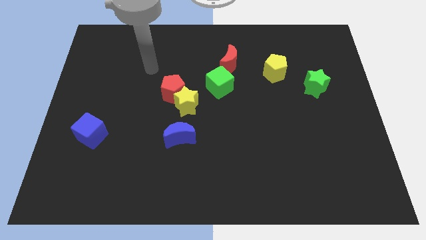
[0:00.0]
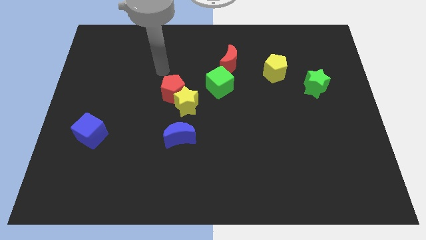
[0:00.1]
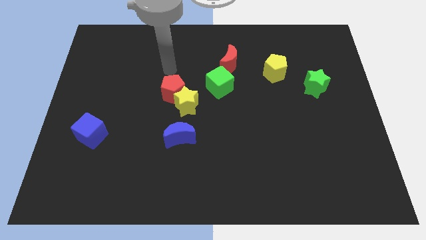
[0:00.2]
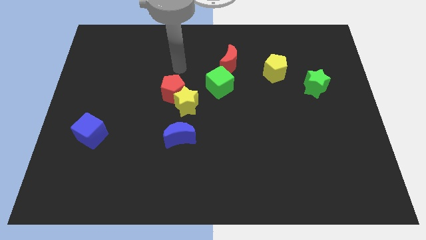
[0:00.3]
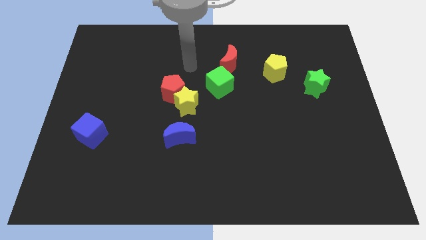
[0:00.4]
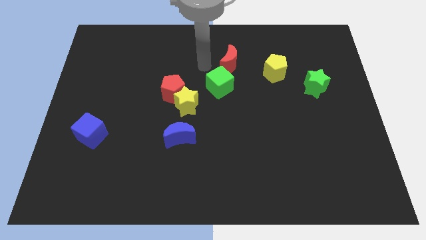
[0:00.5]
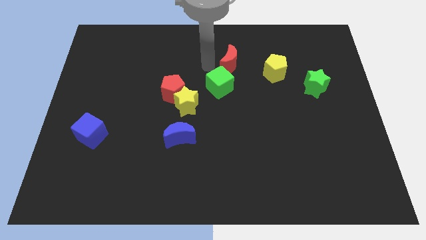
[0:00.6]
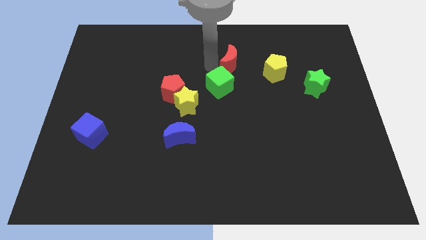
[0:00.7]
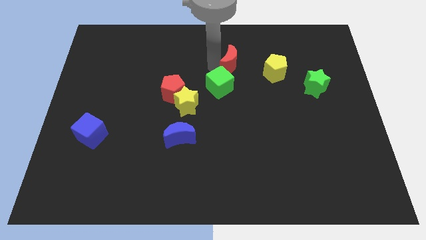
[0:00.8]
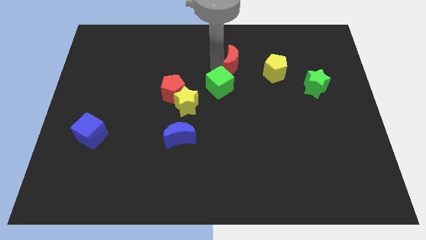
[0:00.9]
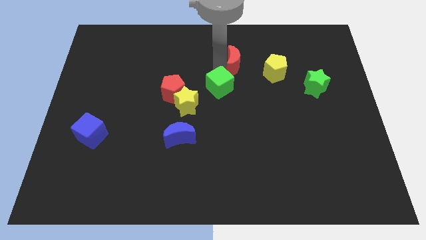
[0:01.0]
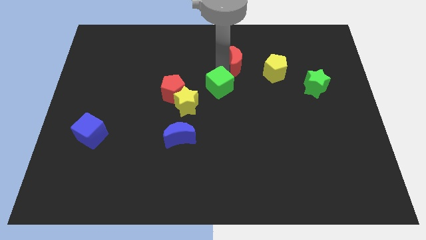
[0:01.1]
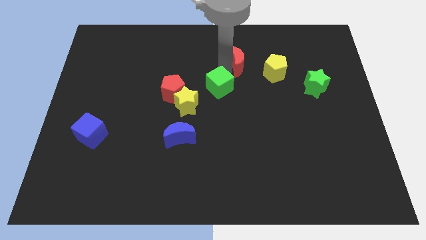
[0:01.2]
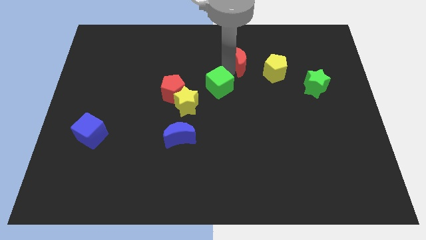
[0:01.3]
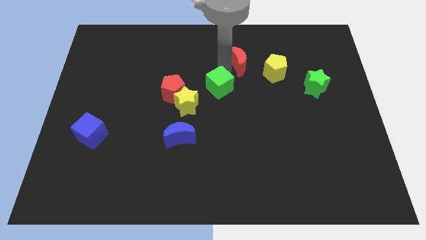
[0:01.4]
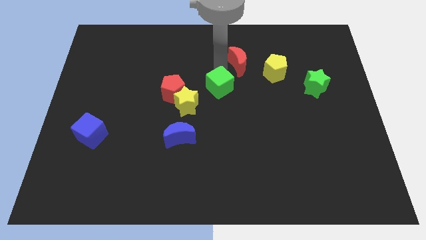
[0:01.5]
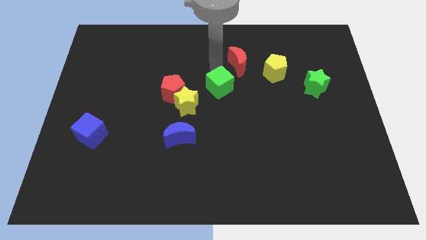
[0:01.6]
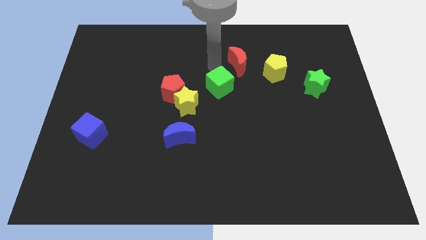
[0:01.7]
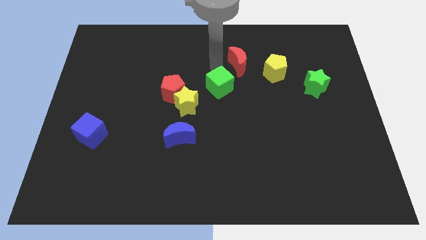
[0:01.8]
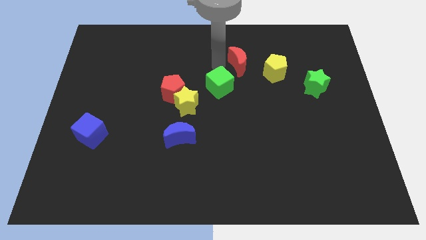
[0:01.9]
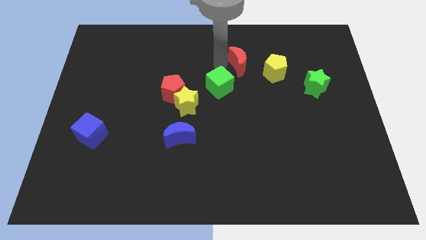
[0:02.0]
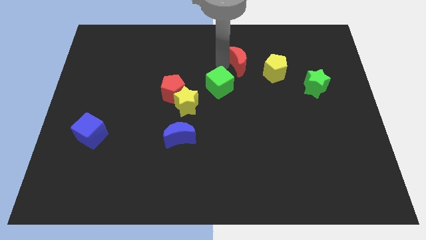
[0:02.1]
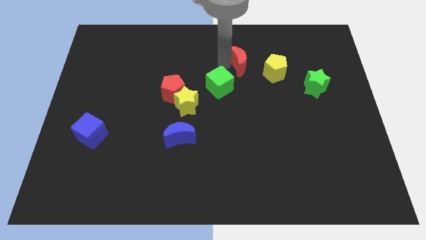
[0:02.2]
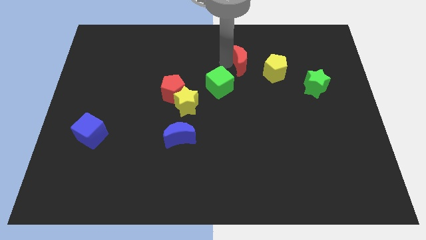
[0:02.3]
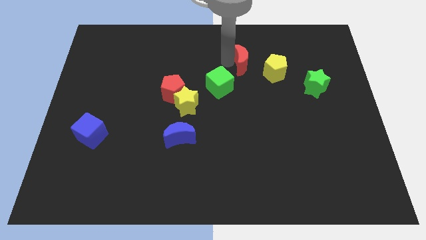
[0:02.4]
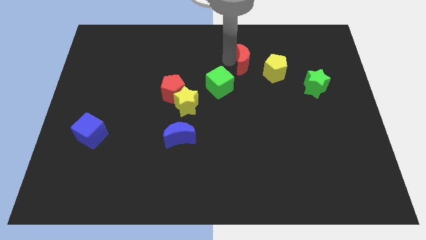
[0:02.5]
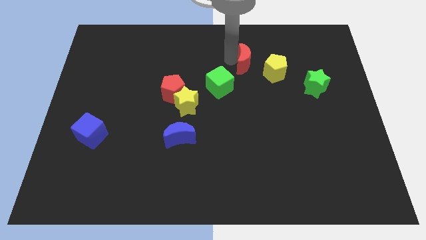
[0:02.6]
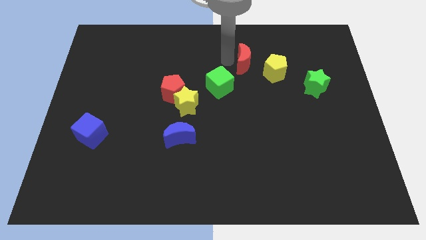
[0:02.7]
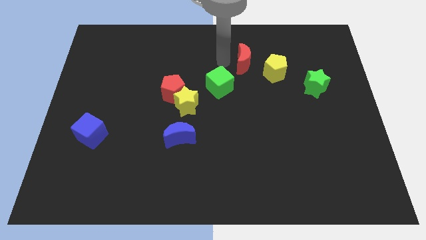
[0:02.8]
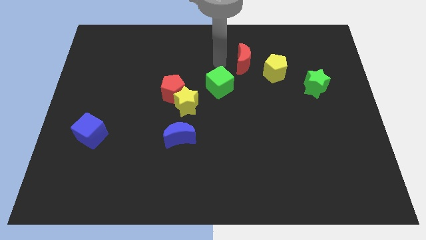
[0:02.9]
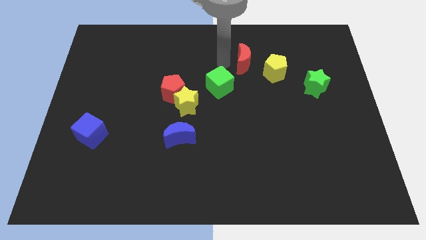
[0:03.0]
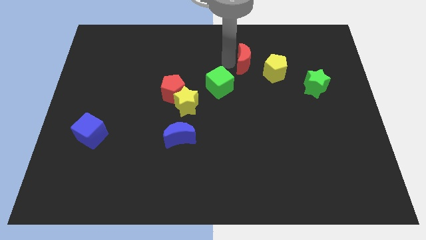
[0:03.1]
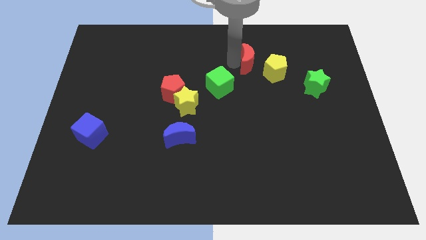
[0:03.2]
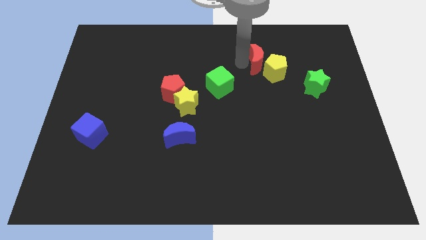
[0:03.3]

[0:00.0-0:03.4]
push the red moon to the right a bit

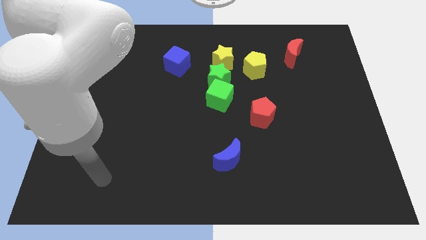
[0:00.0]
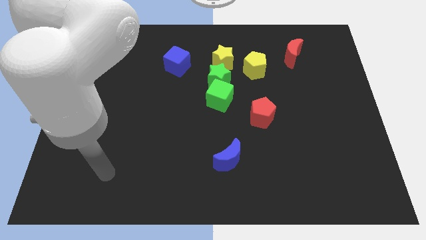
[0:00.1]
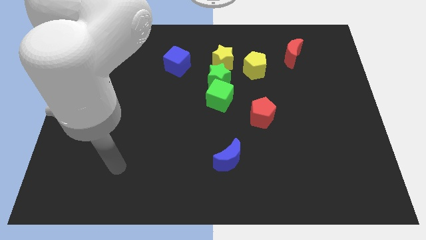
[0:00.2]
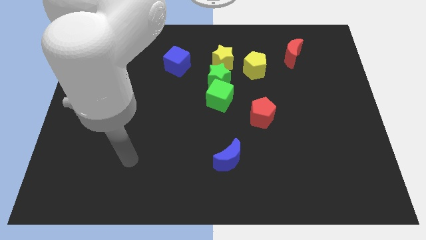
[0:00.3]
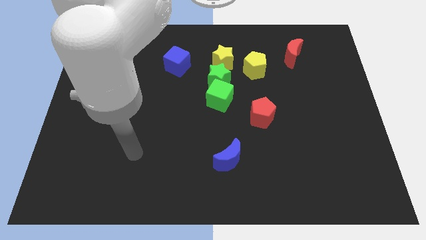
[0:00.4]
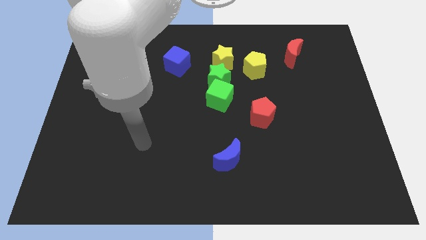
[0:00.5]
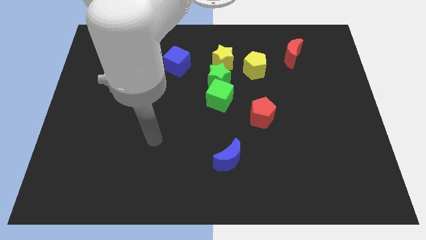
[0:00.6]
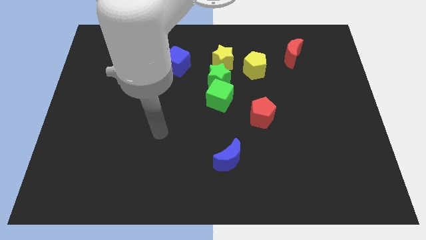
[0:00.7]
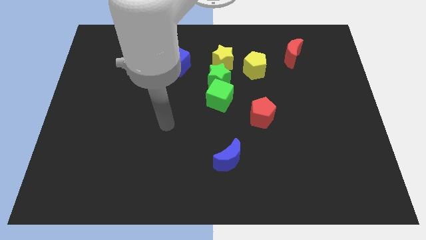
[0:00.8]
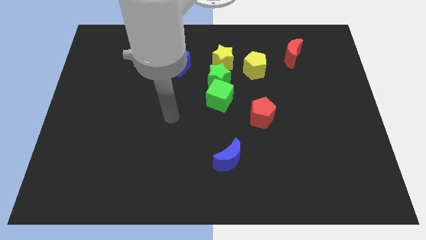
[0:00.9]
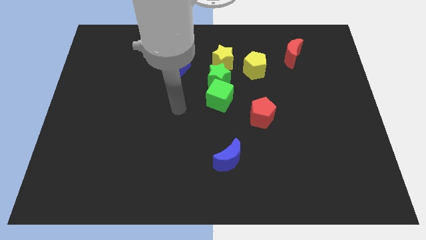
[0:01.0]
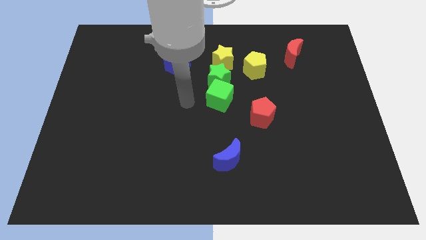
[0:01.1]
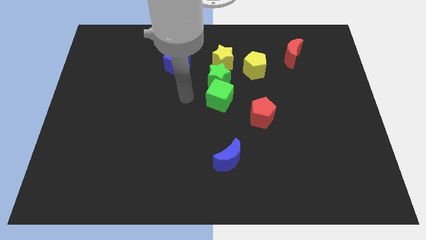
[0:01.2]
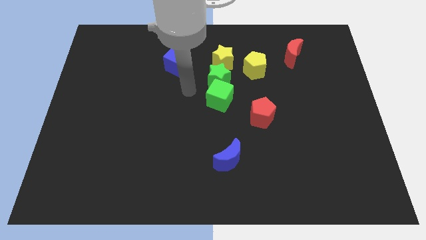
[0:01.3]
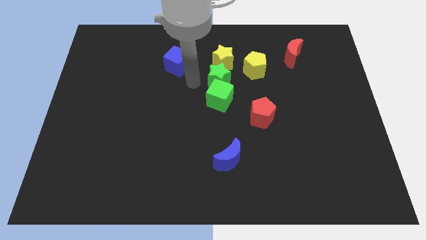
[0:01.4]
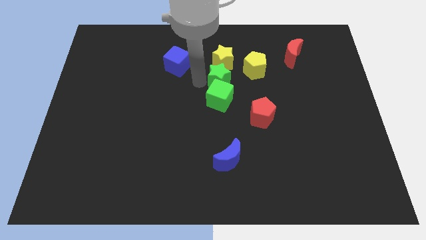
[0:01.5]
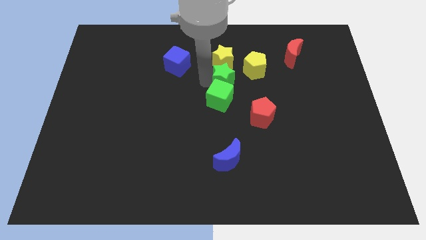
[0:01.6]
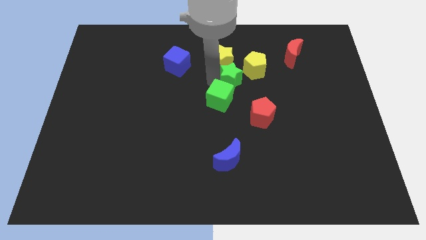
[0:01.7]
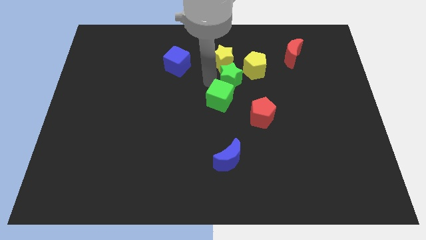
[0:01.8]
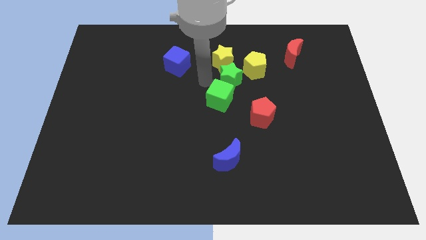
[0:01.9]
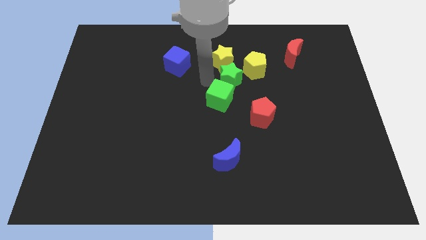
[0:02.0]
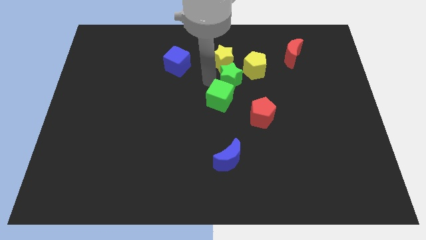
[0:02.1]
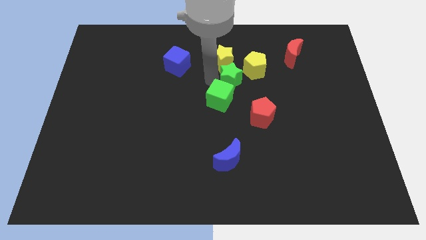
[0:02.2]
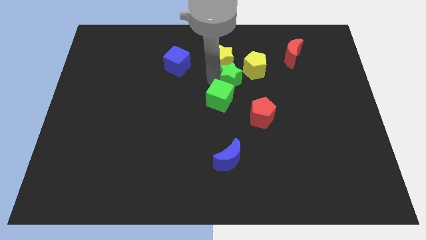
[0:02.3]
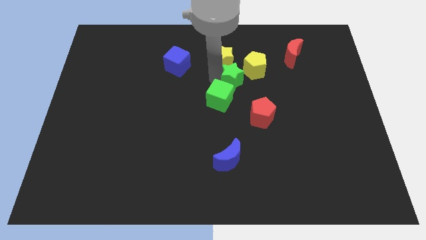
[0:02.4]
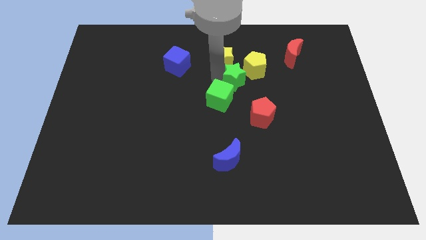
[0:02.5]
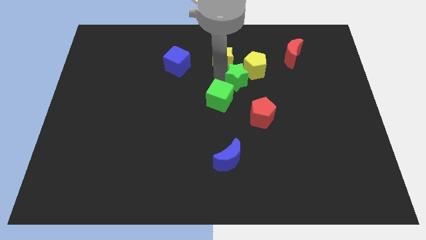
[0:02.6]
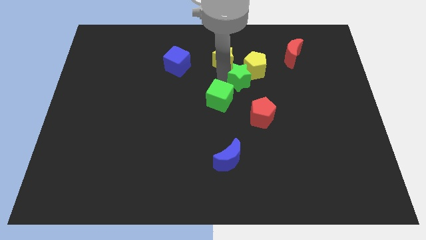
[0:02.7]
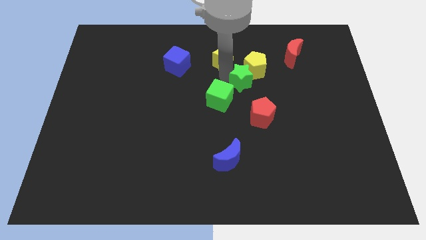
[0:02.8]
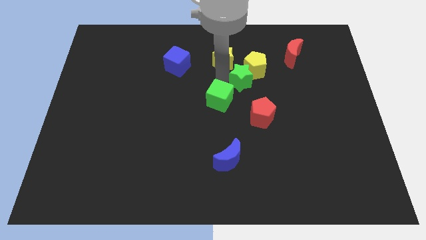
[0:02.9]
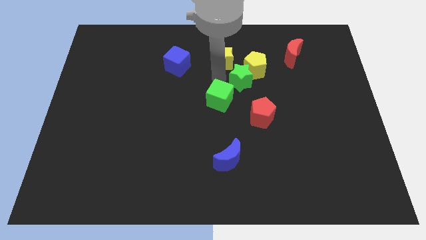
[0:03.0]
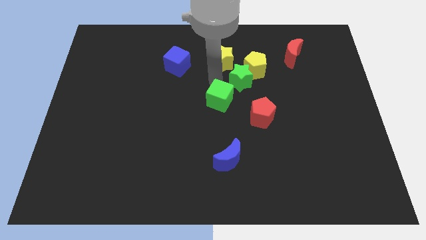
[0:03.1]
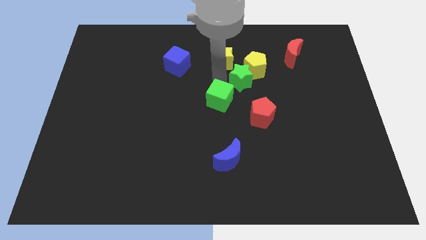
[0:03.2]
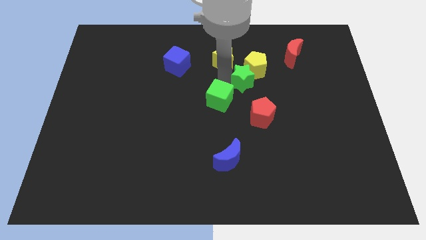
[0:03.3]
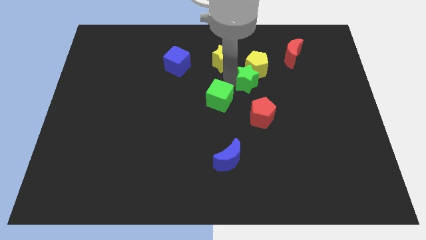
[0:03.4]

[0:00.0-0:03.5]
push the green star to the right somewhat

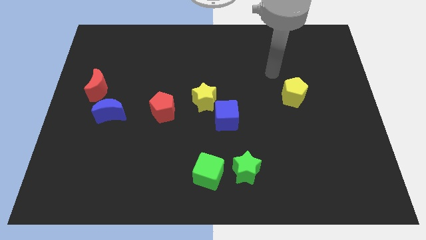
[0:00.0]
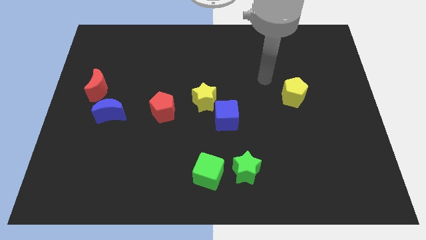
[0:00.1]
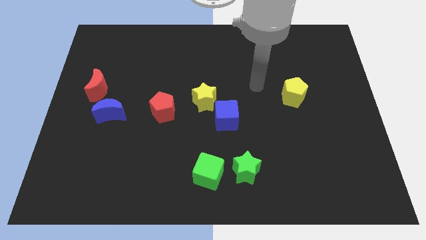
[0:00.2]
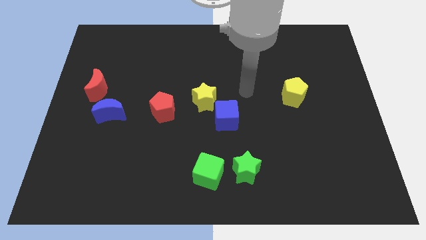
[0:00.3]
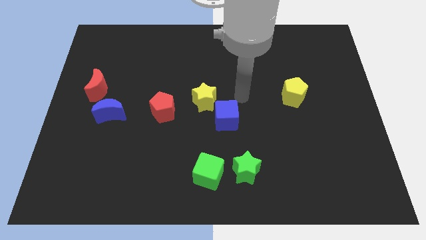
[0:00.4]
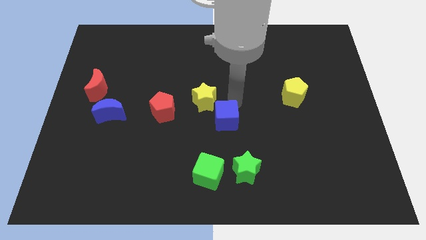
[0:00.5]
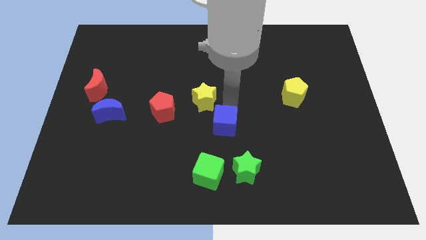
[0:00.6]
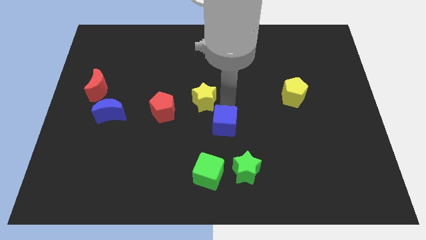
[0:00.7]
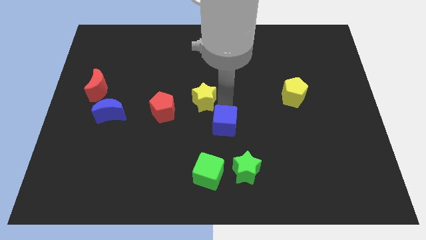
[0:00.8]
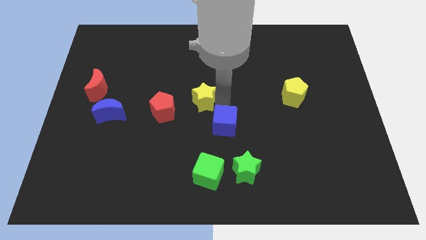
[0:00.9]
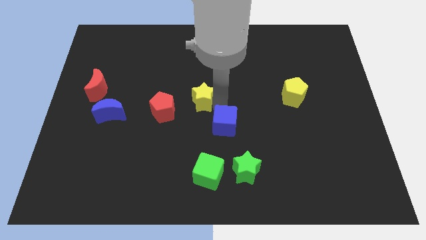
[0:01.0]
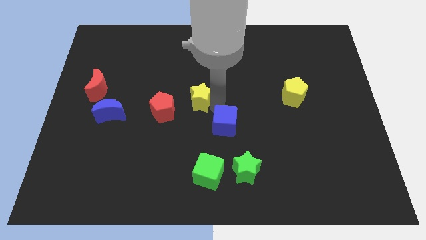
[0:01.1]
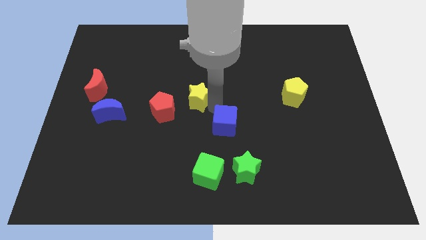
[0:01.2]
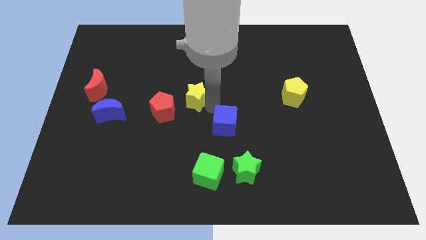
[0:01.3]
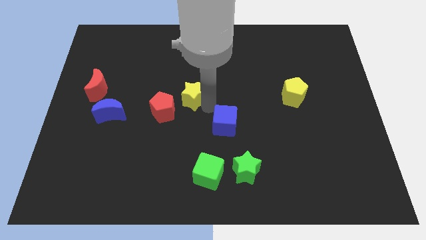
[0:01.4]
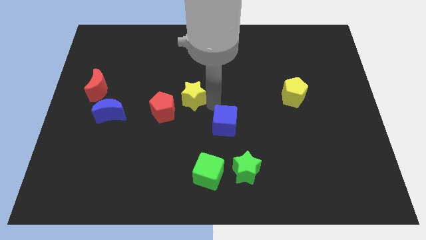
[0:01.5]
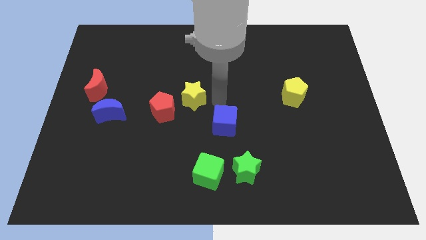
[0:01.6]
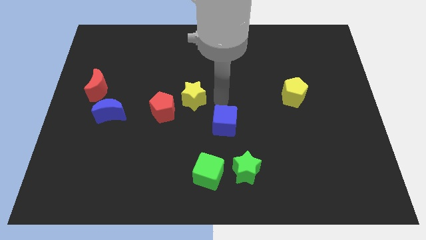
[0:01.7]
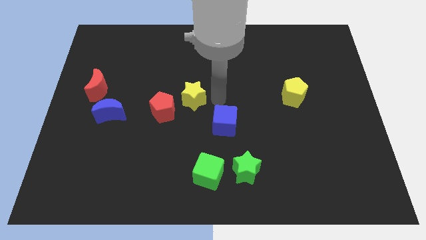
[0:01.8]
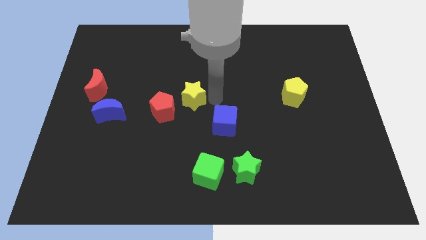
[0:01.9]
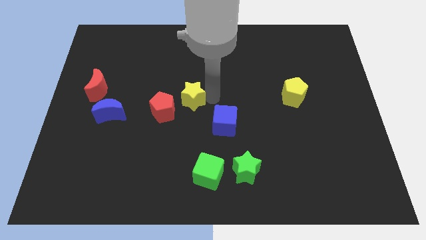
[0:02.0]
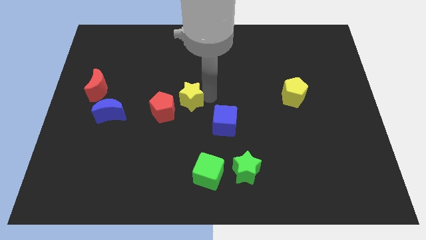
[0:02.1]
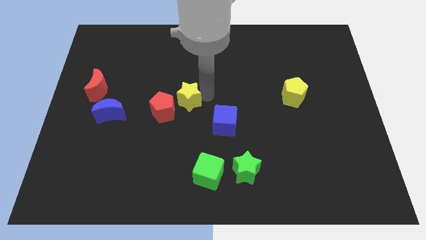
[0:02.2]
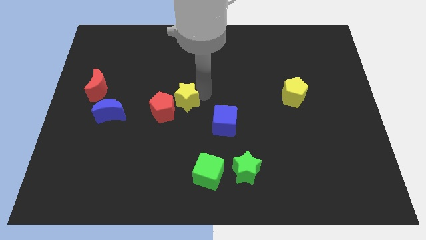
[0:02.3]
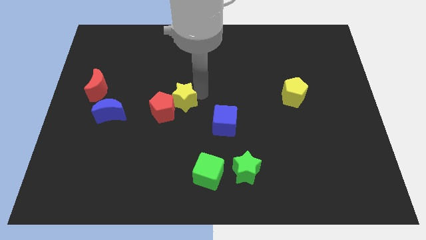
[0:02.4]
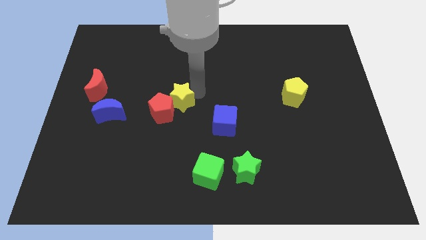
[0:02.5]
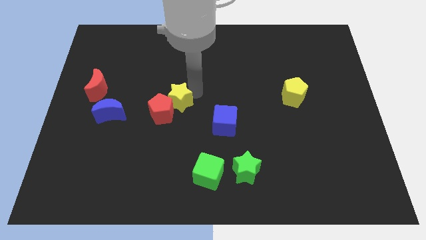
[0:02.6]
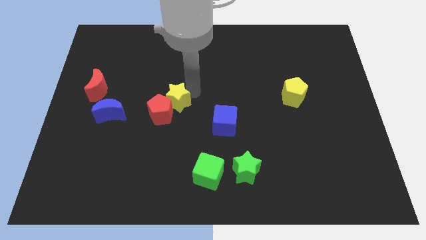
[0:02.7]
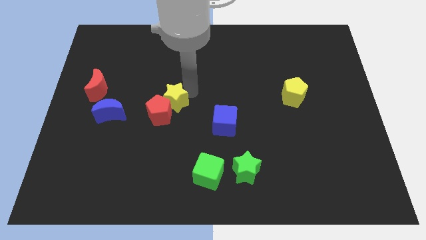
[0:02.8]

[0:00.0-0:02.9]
slide the yellow star somewhat to the left
